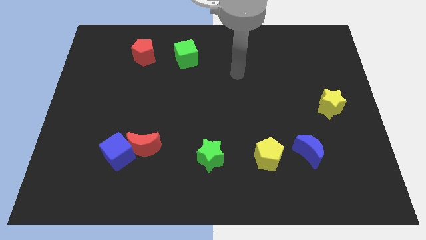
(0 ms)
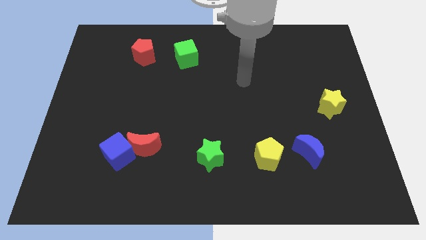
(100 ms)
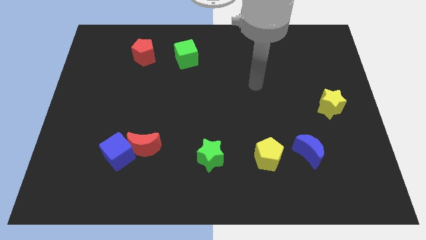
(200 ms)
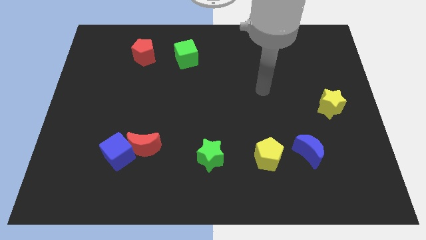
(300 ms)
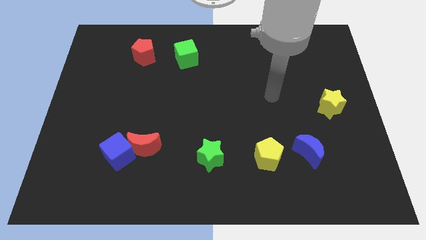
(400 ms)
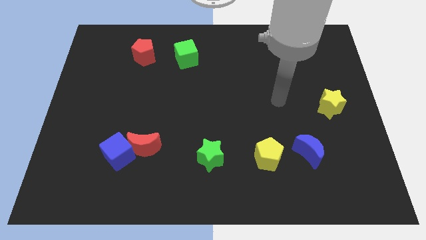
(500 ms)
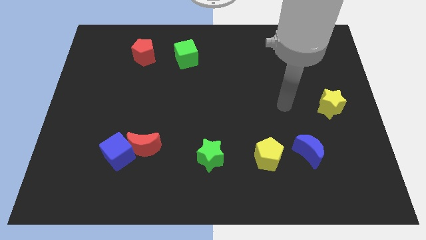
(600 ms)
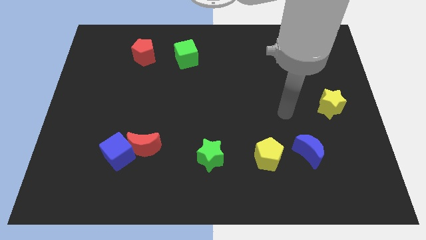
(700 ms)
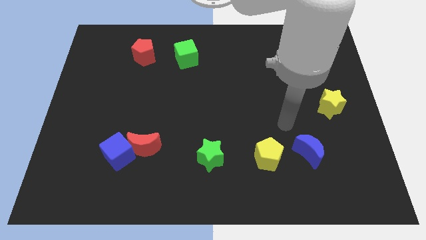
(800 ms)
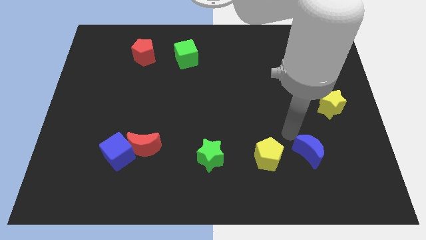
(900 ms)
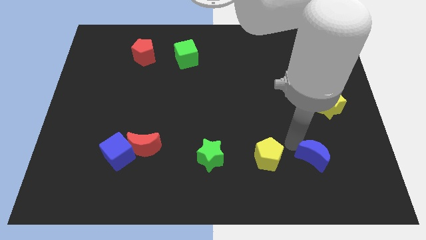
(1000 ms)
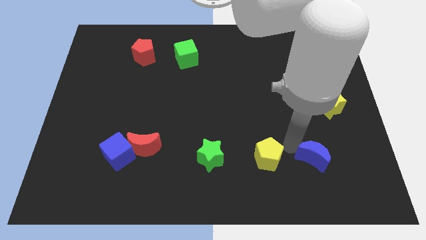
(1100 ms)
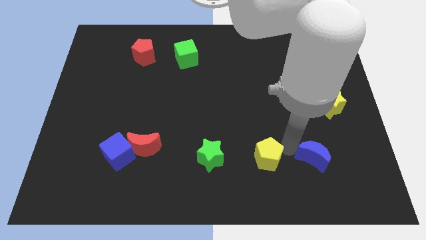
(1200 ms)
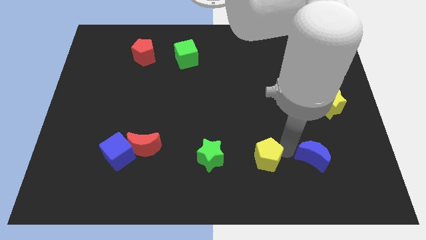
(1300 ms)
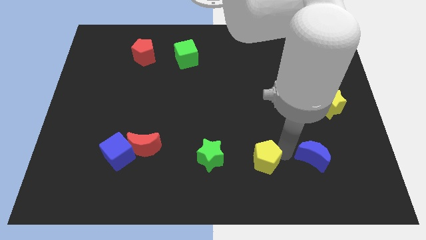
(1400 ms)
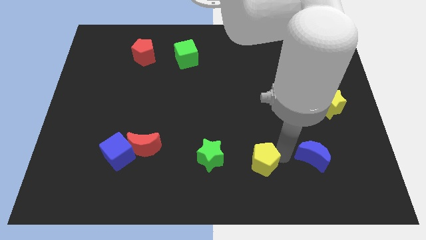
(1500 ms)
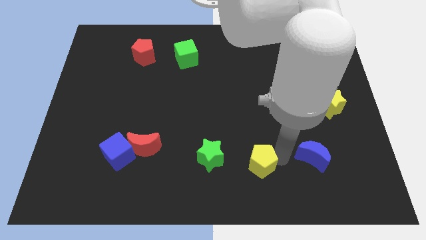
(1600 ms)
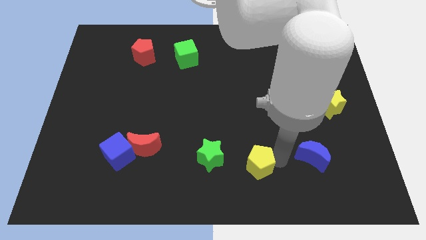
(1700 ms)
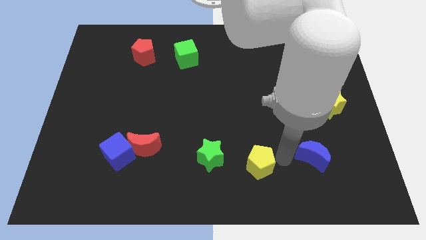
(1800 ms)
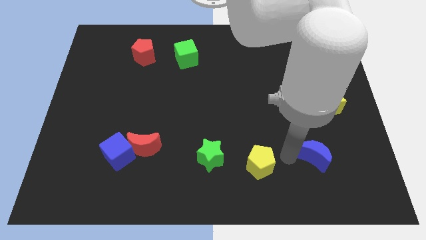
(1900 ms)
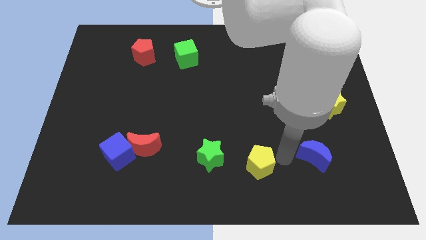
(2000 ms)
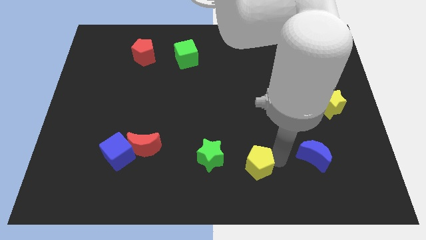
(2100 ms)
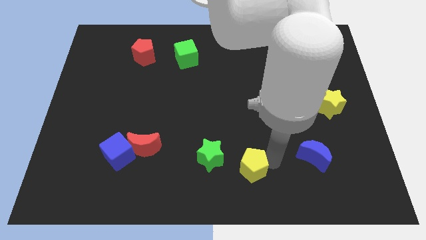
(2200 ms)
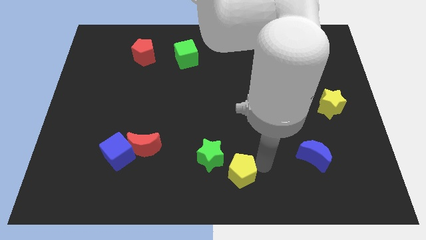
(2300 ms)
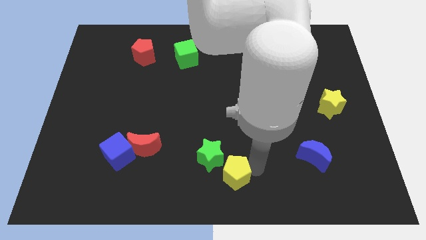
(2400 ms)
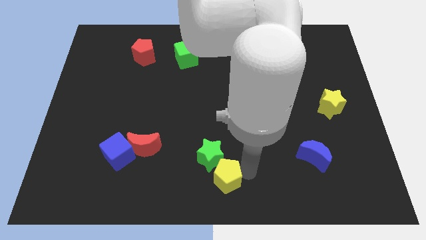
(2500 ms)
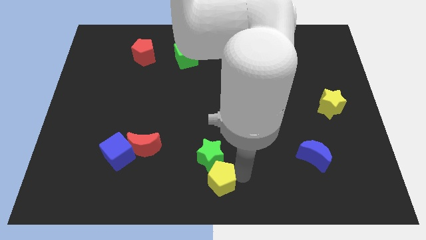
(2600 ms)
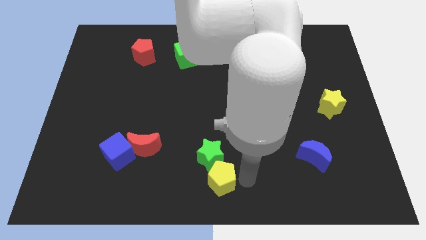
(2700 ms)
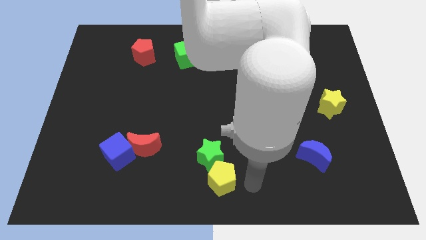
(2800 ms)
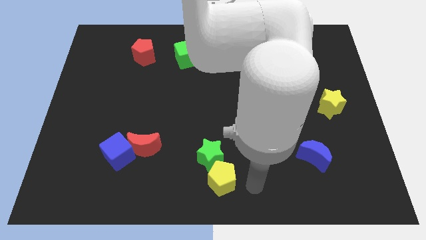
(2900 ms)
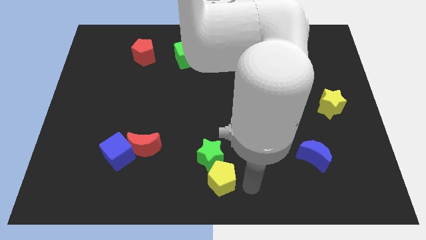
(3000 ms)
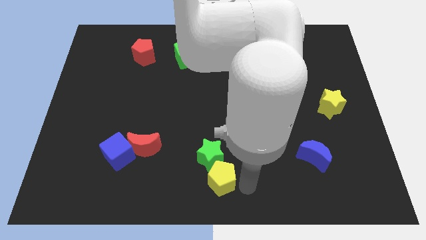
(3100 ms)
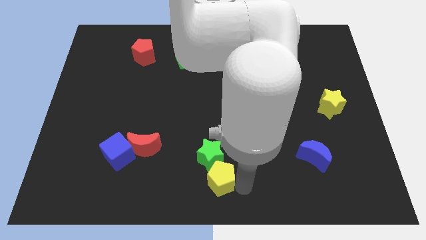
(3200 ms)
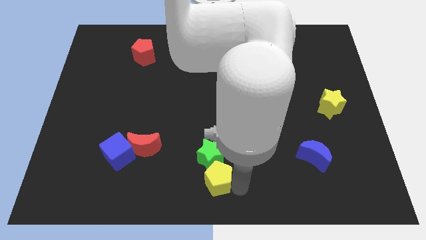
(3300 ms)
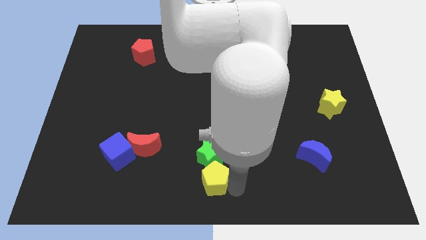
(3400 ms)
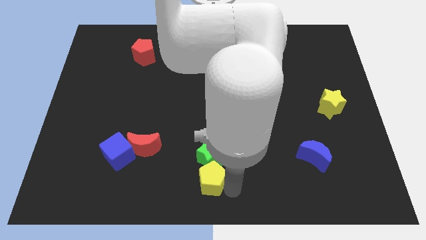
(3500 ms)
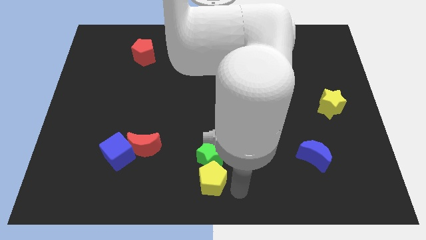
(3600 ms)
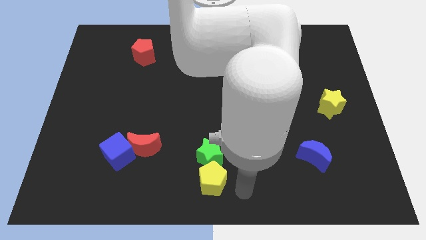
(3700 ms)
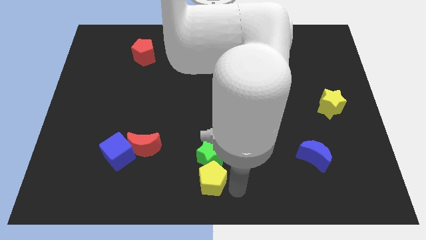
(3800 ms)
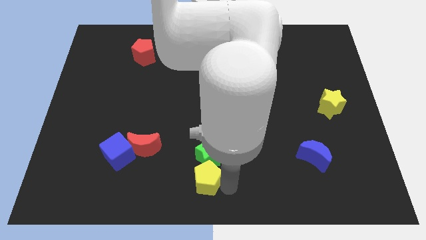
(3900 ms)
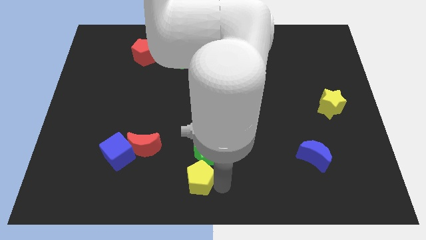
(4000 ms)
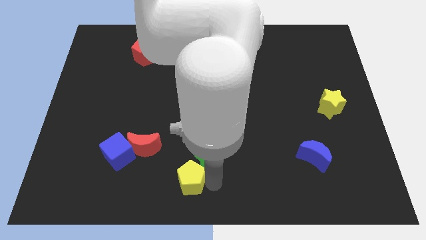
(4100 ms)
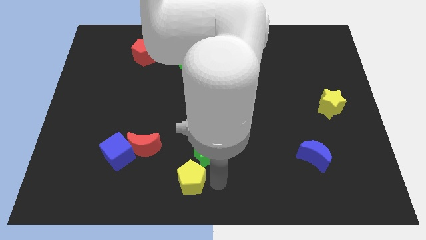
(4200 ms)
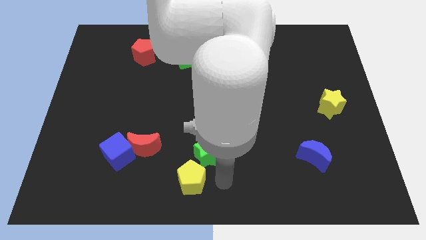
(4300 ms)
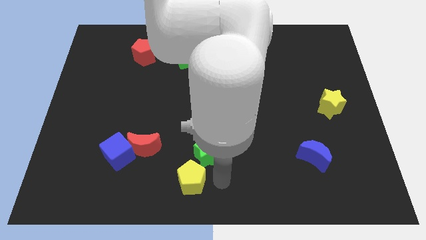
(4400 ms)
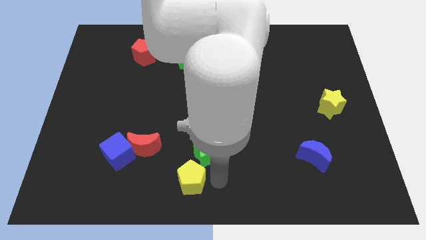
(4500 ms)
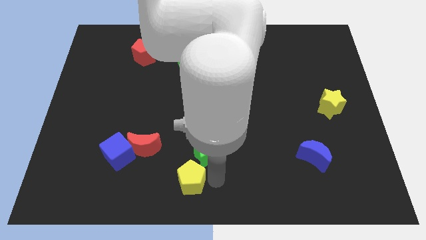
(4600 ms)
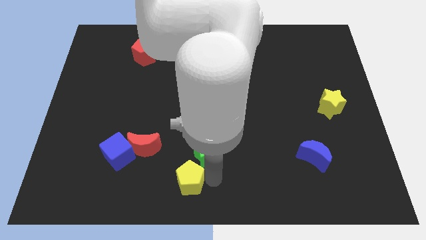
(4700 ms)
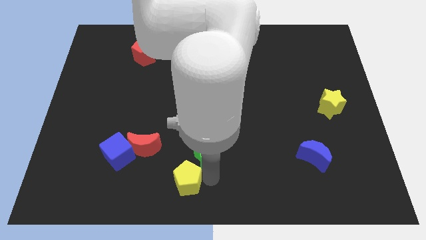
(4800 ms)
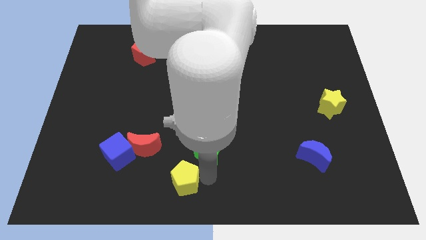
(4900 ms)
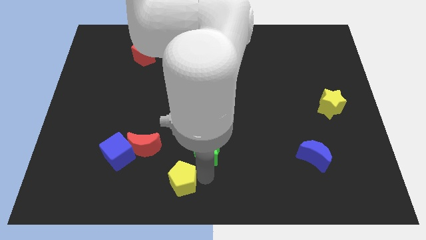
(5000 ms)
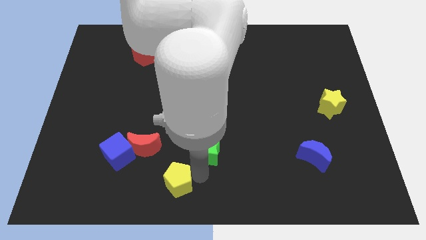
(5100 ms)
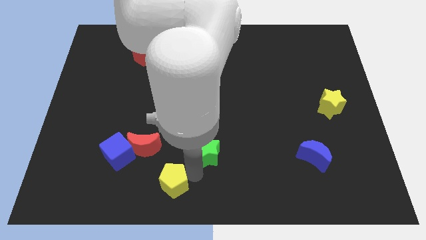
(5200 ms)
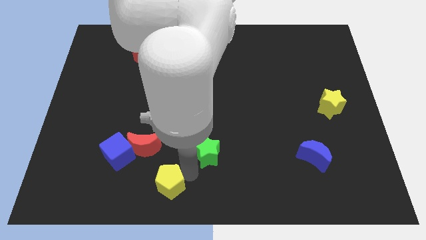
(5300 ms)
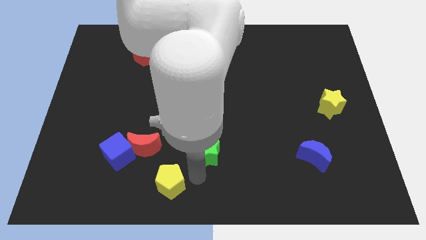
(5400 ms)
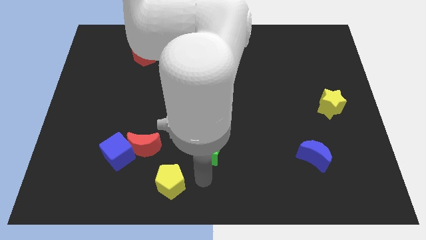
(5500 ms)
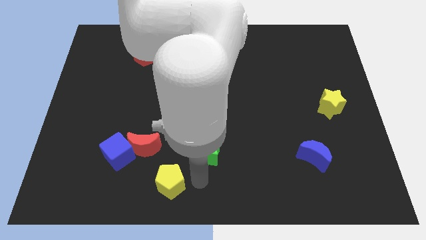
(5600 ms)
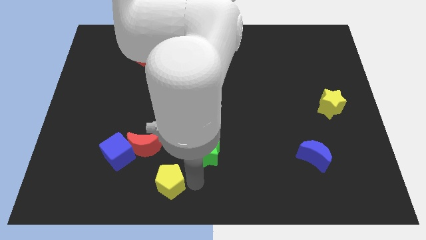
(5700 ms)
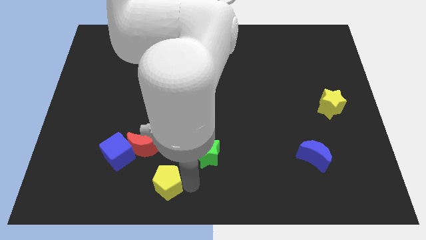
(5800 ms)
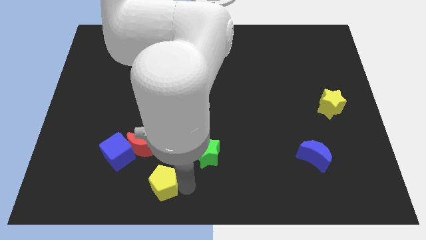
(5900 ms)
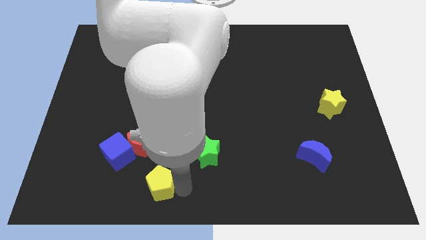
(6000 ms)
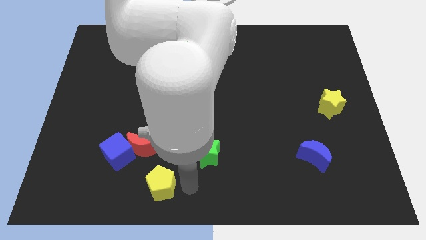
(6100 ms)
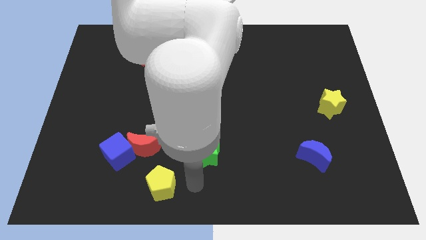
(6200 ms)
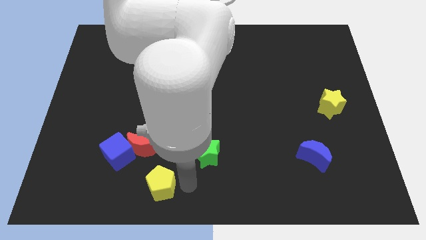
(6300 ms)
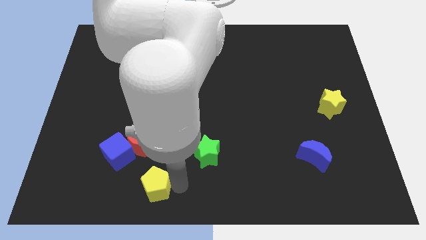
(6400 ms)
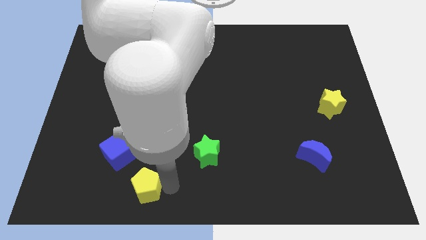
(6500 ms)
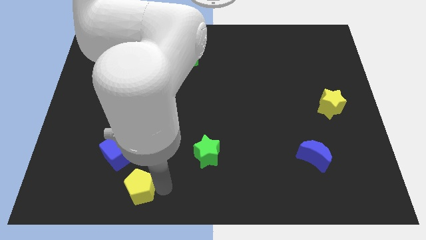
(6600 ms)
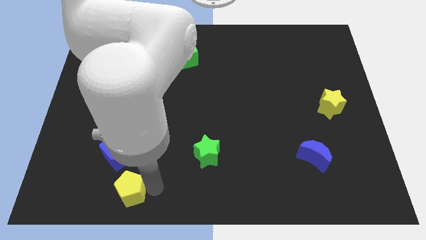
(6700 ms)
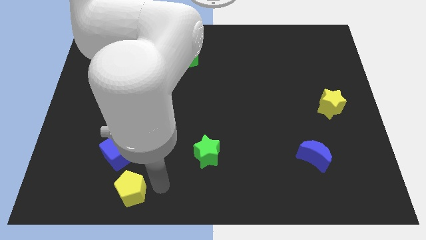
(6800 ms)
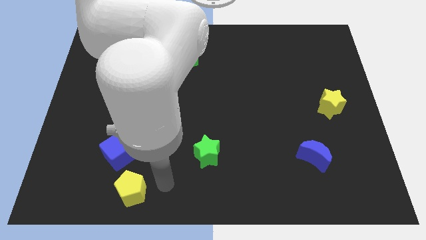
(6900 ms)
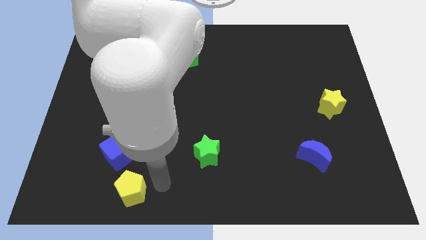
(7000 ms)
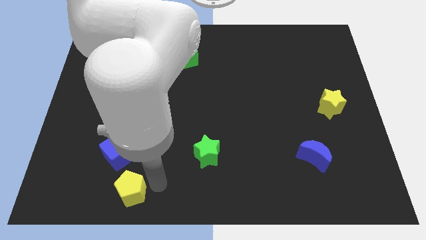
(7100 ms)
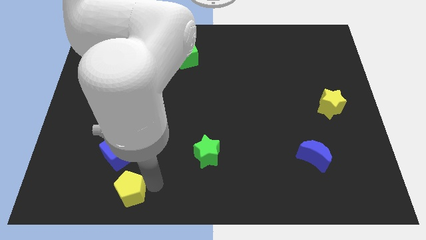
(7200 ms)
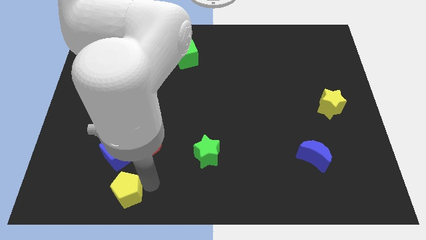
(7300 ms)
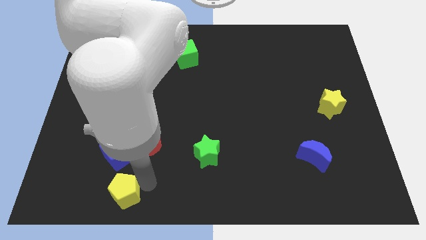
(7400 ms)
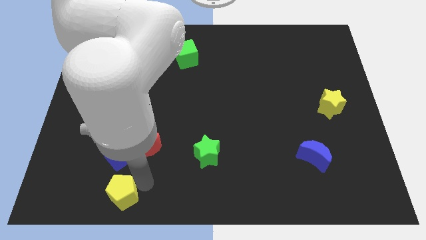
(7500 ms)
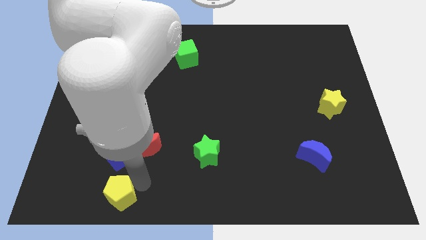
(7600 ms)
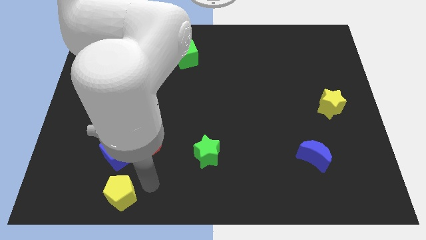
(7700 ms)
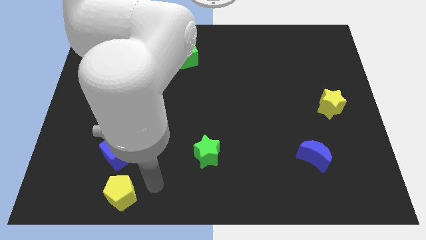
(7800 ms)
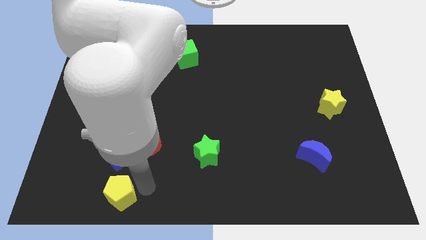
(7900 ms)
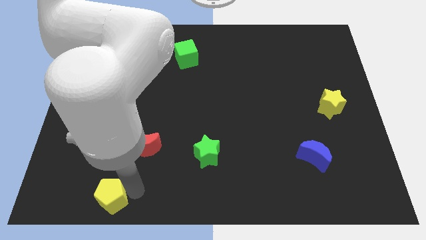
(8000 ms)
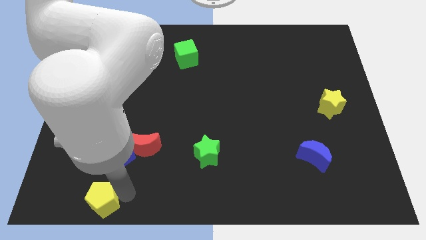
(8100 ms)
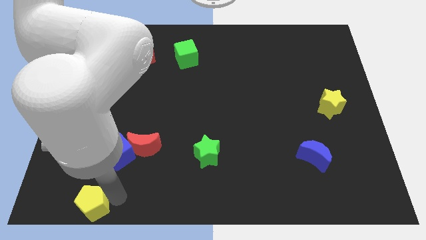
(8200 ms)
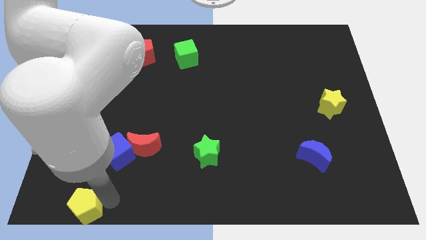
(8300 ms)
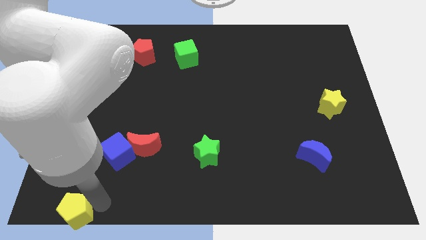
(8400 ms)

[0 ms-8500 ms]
move the yellow pentagon to the bottom left corner
